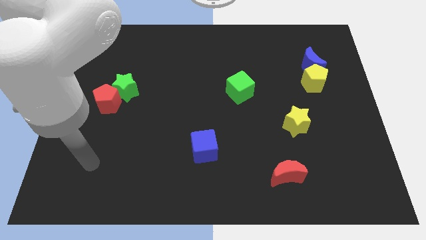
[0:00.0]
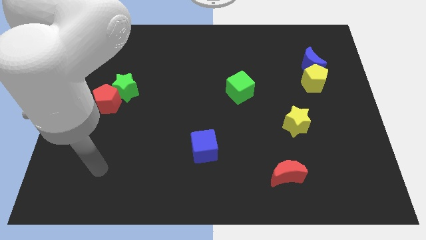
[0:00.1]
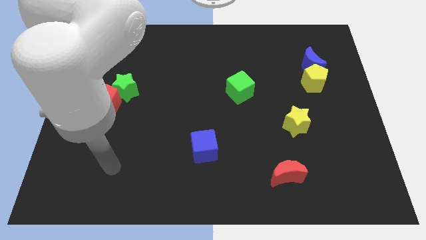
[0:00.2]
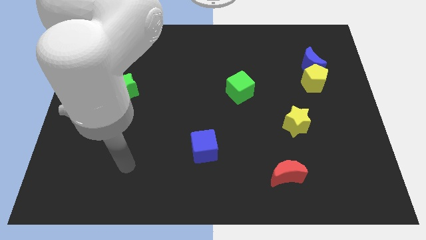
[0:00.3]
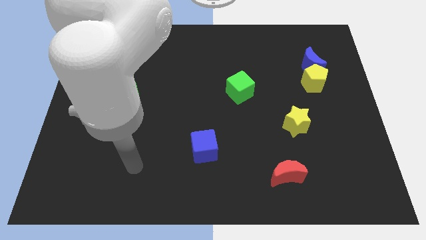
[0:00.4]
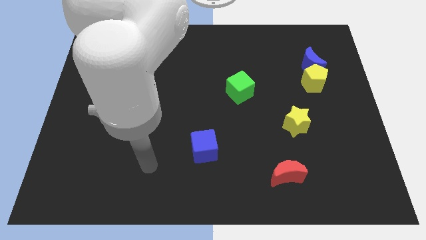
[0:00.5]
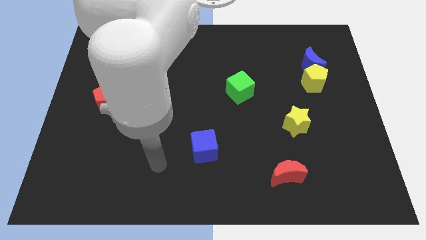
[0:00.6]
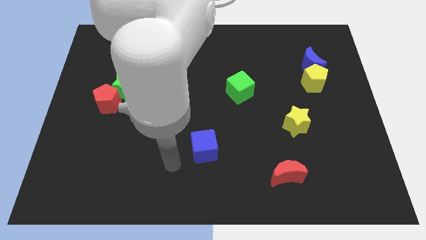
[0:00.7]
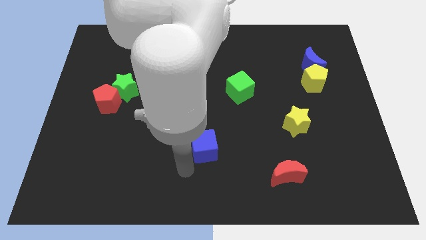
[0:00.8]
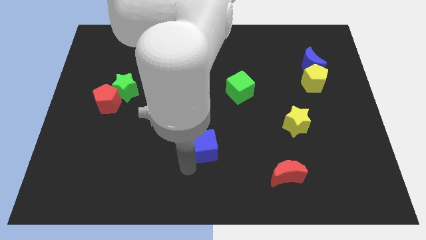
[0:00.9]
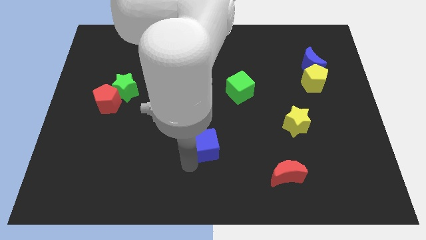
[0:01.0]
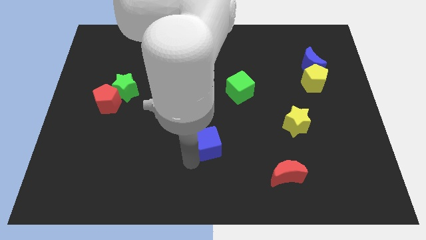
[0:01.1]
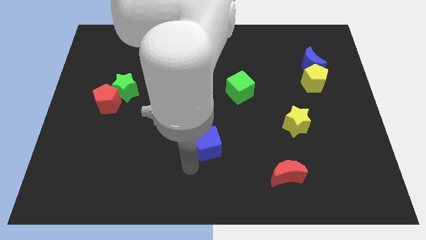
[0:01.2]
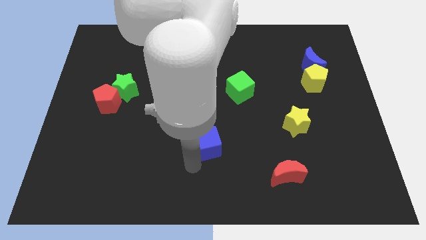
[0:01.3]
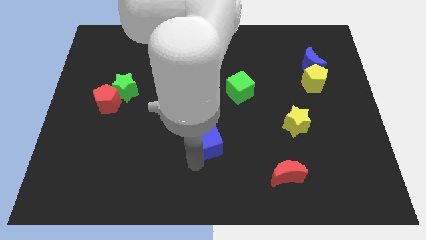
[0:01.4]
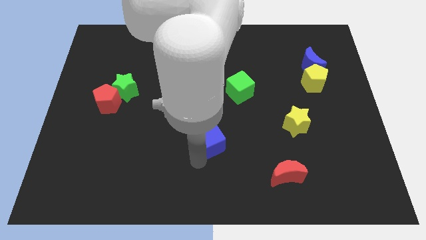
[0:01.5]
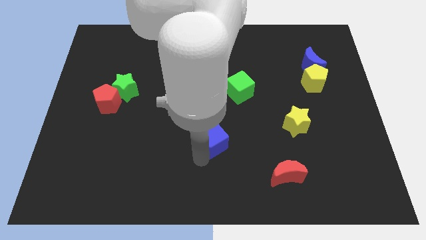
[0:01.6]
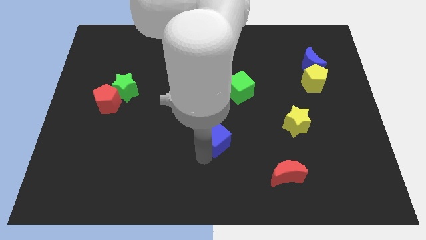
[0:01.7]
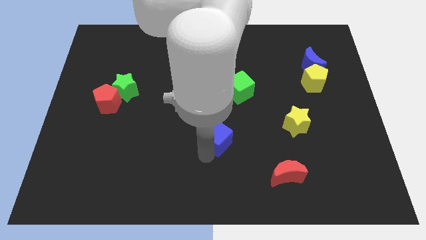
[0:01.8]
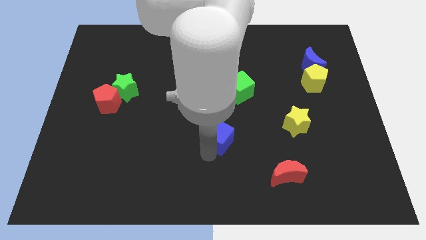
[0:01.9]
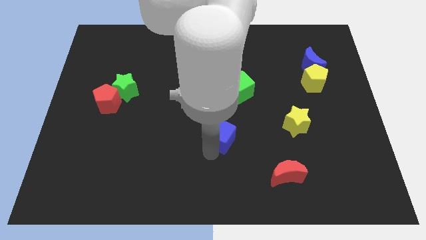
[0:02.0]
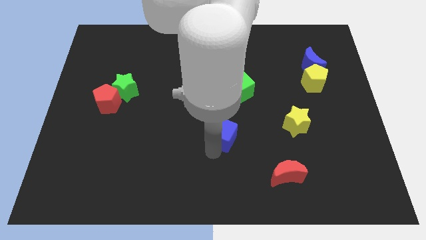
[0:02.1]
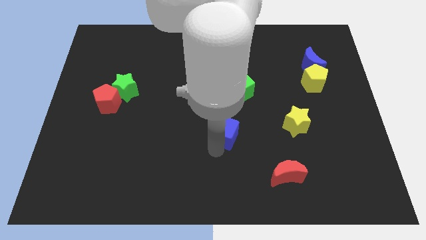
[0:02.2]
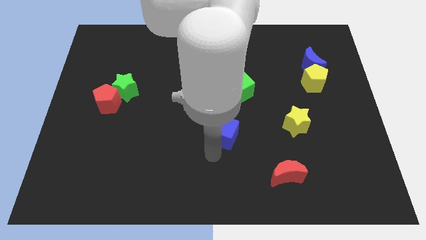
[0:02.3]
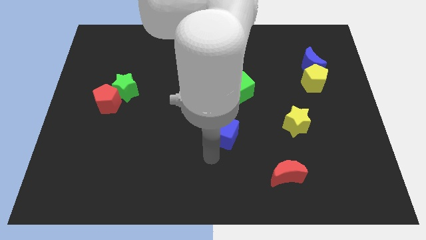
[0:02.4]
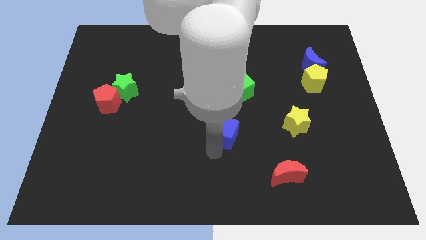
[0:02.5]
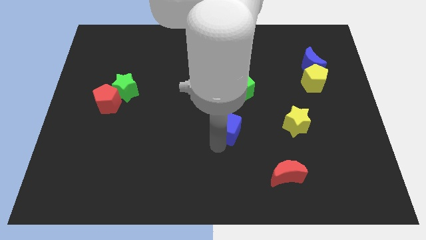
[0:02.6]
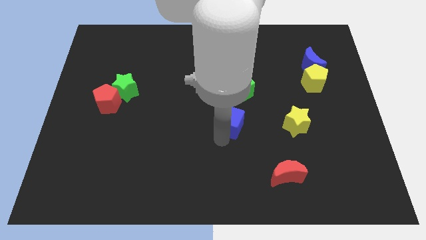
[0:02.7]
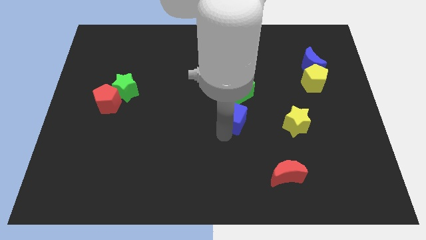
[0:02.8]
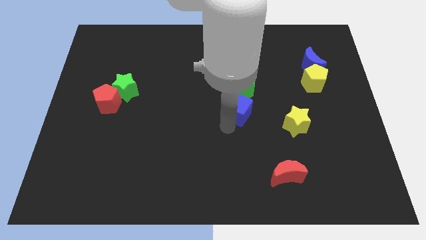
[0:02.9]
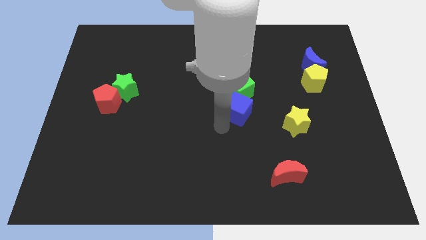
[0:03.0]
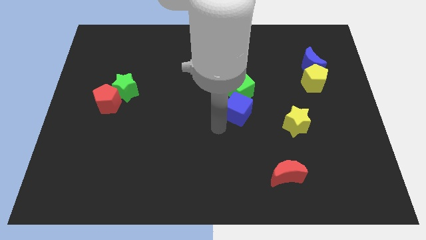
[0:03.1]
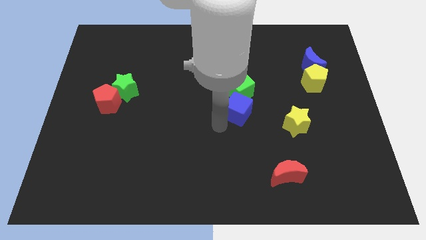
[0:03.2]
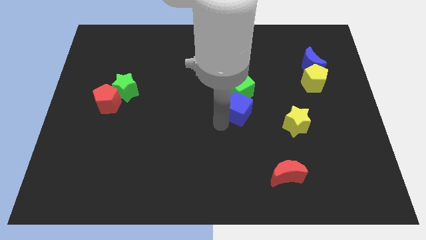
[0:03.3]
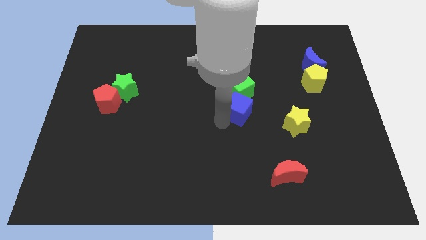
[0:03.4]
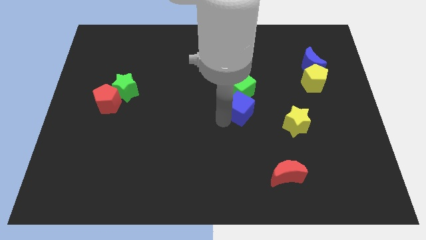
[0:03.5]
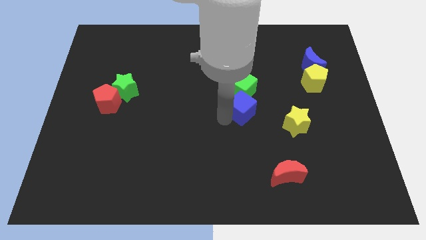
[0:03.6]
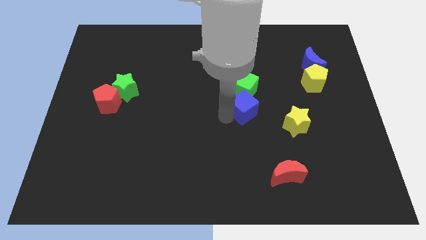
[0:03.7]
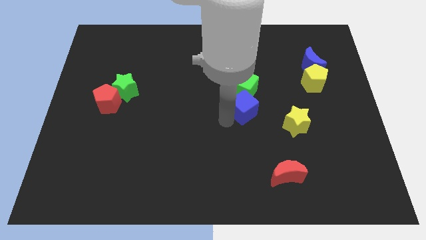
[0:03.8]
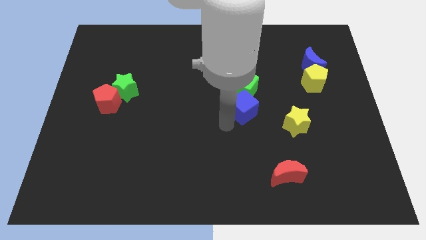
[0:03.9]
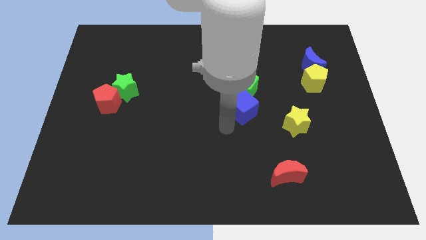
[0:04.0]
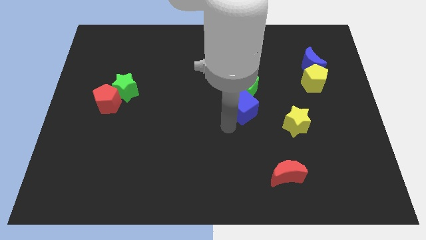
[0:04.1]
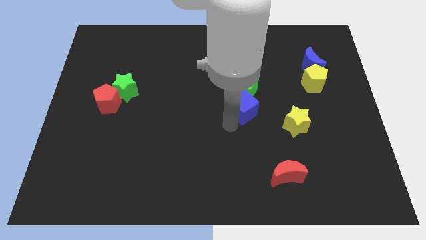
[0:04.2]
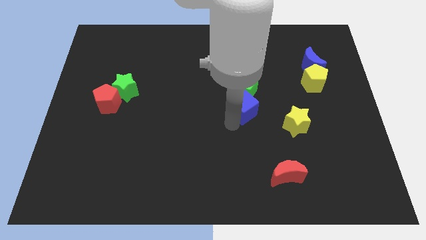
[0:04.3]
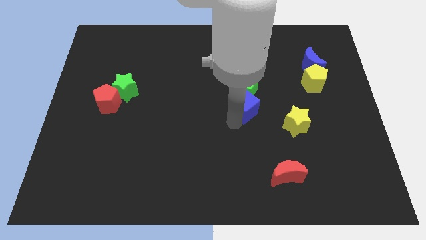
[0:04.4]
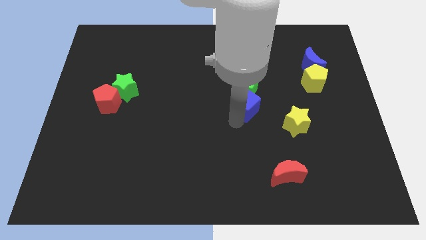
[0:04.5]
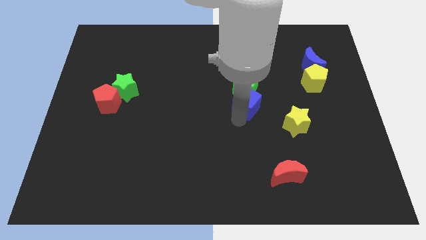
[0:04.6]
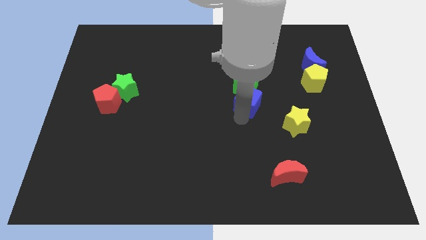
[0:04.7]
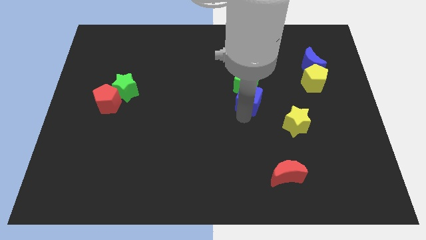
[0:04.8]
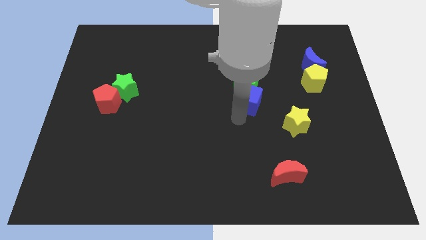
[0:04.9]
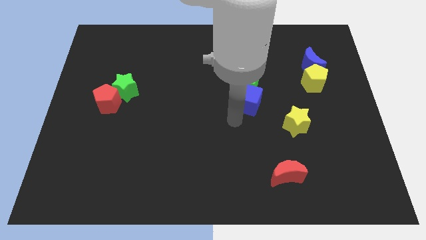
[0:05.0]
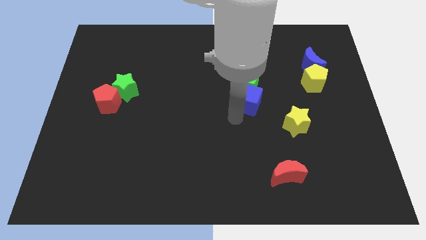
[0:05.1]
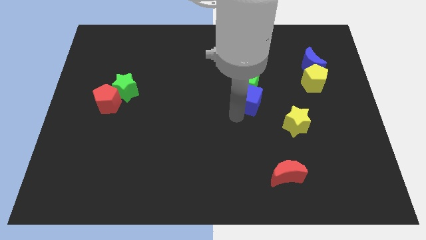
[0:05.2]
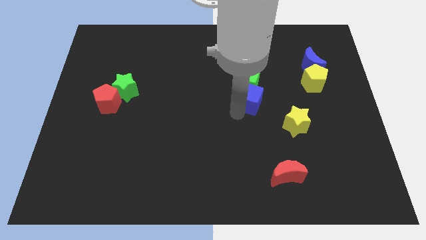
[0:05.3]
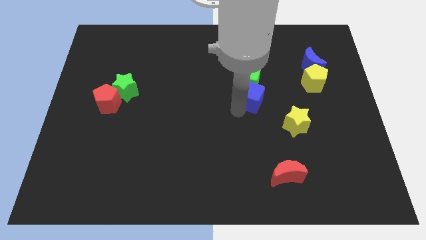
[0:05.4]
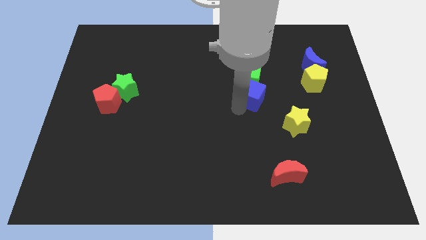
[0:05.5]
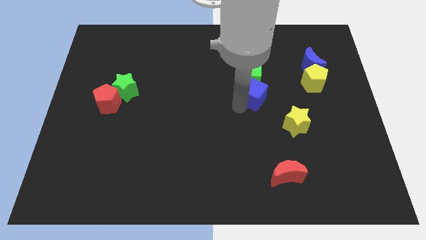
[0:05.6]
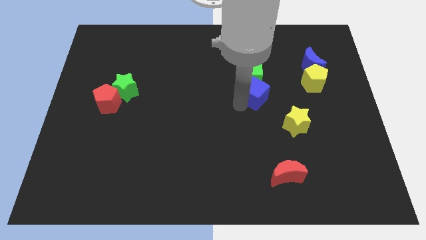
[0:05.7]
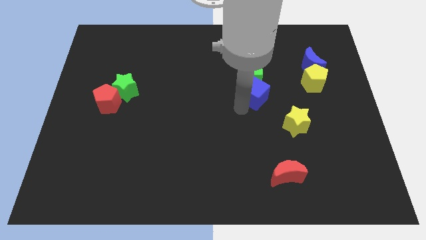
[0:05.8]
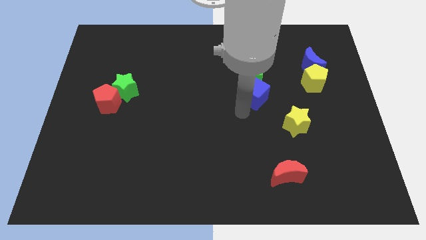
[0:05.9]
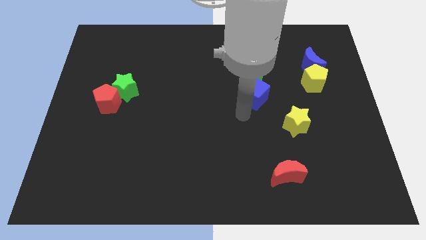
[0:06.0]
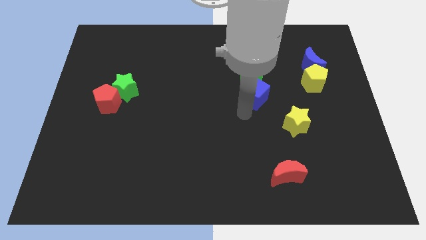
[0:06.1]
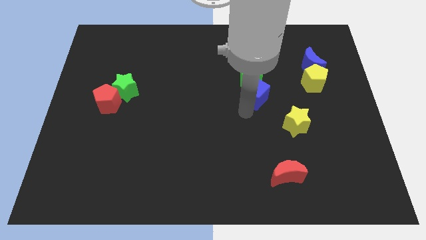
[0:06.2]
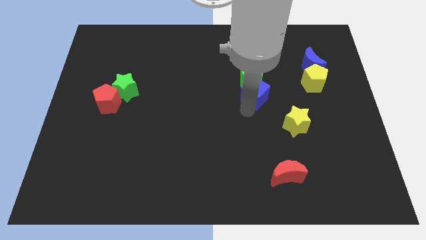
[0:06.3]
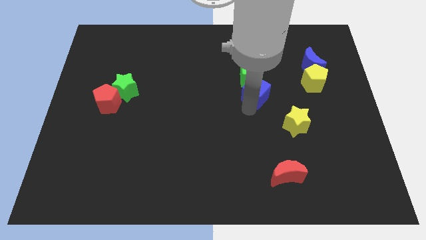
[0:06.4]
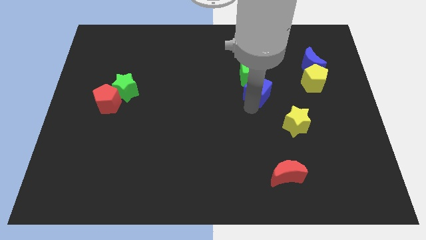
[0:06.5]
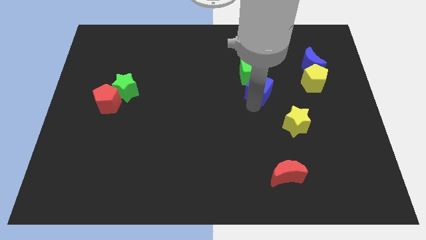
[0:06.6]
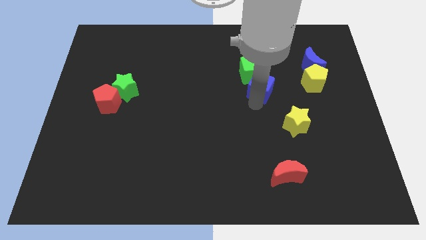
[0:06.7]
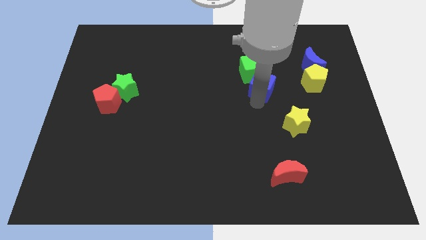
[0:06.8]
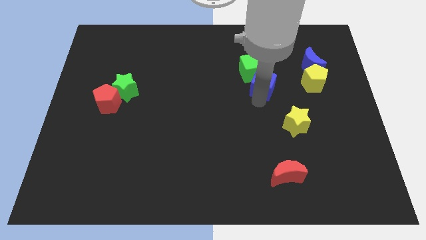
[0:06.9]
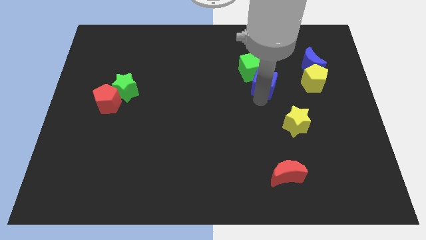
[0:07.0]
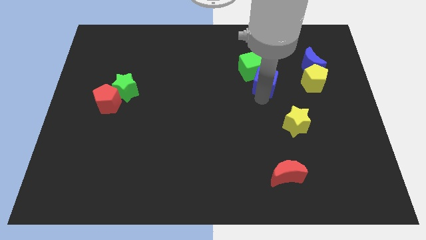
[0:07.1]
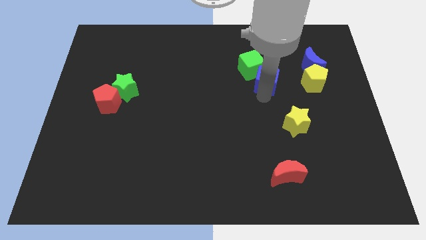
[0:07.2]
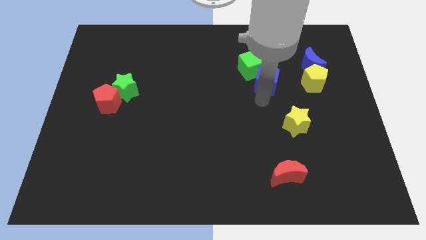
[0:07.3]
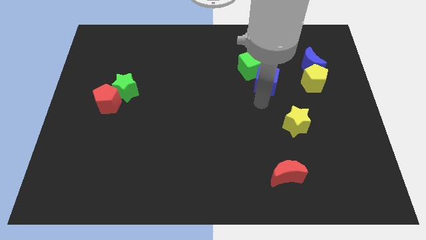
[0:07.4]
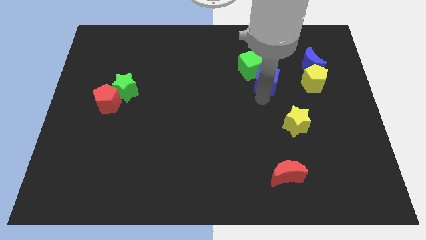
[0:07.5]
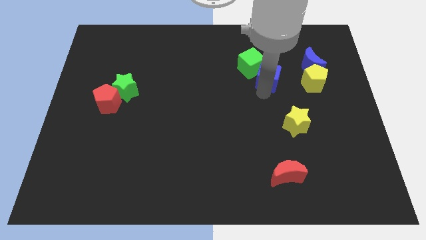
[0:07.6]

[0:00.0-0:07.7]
slide the blue cube to the left side of the blue moon
